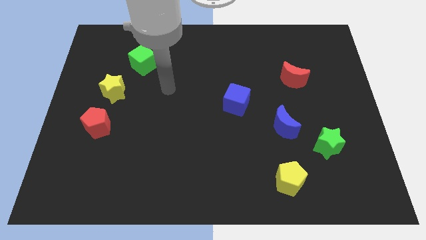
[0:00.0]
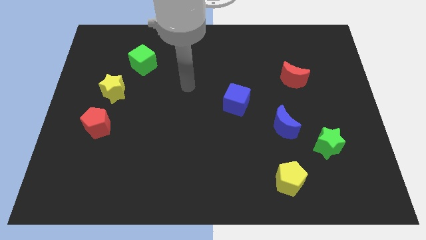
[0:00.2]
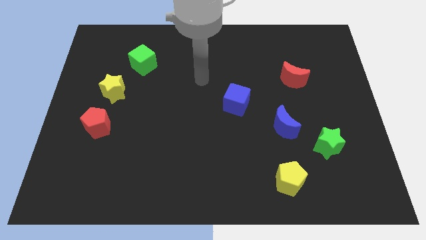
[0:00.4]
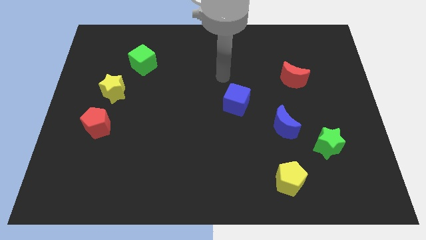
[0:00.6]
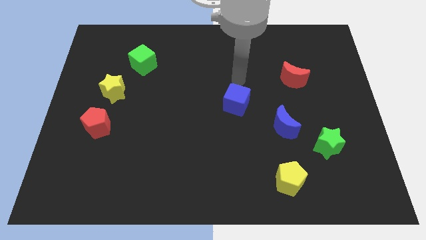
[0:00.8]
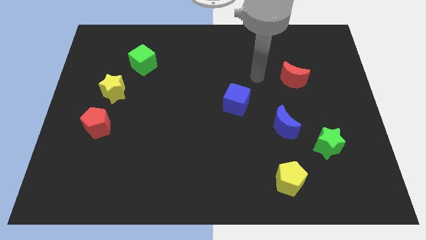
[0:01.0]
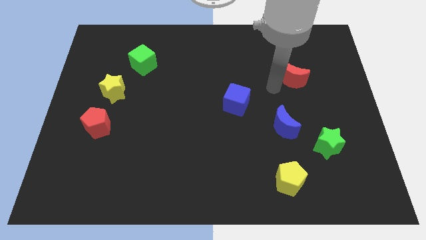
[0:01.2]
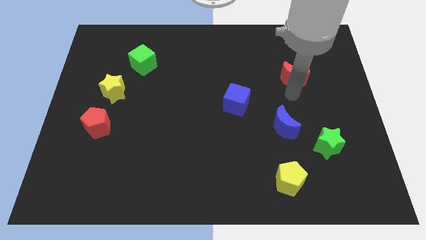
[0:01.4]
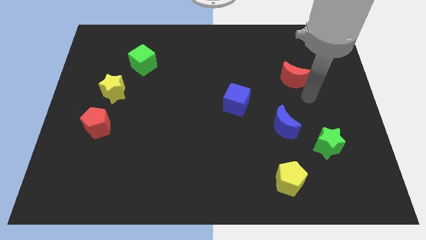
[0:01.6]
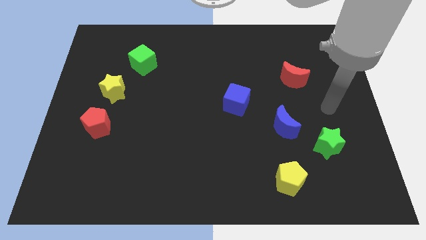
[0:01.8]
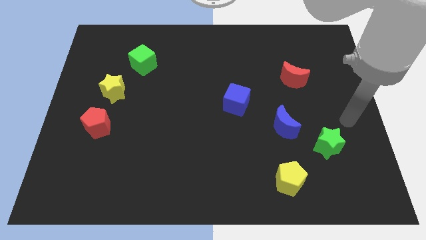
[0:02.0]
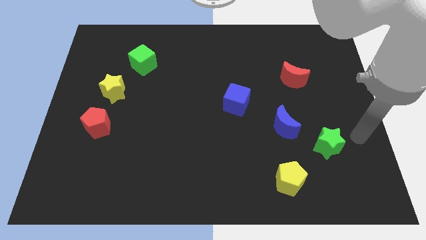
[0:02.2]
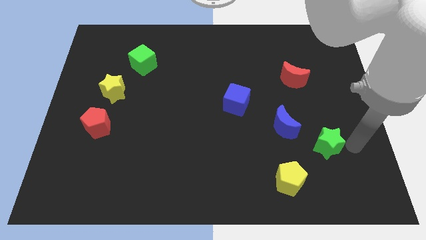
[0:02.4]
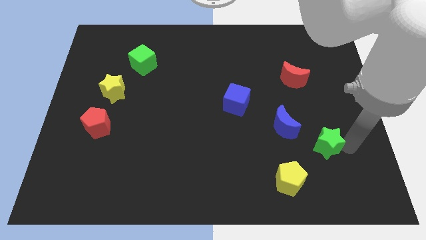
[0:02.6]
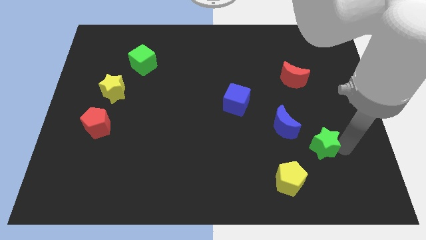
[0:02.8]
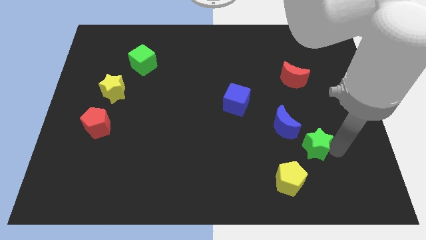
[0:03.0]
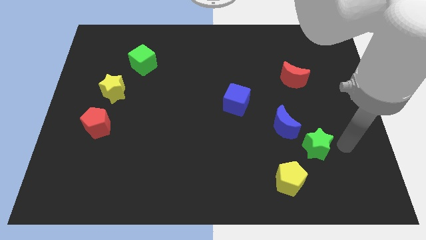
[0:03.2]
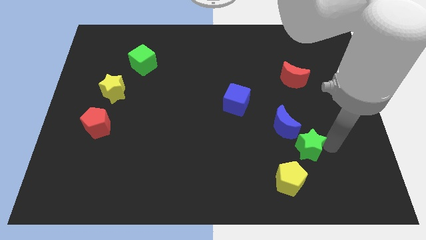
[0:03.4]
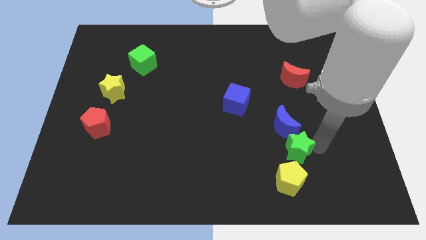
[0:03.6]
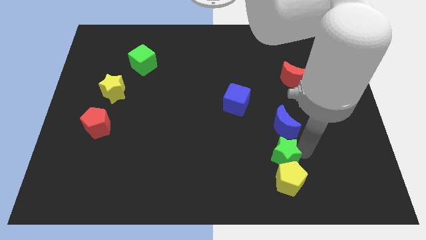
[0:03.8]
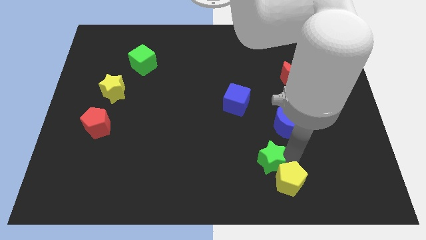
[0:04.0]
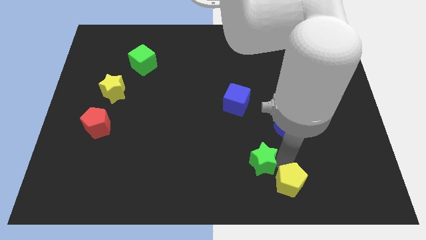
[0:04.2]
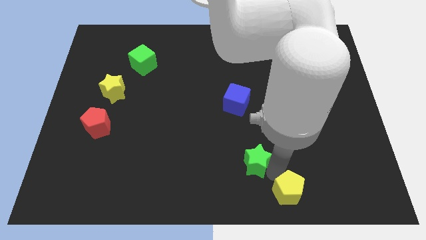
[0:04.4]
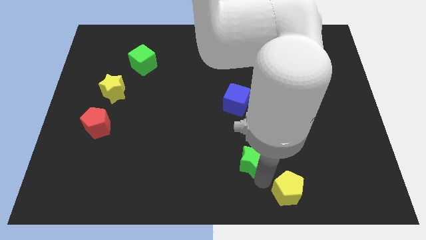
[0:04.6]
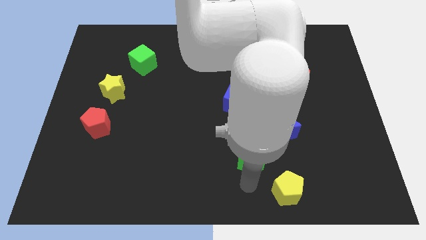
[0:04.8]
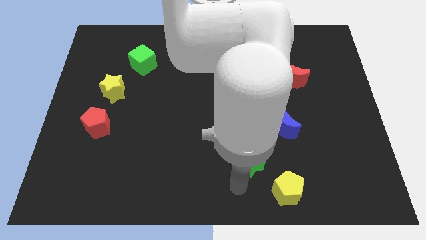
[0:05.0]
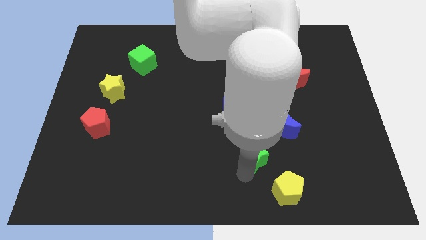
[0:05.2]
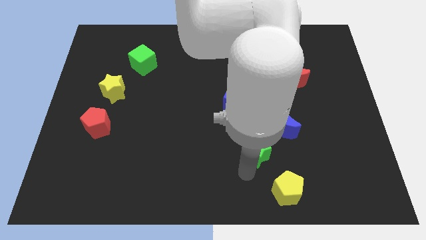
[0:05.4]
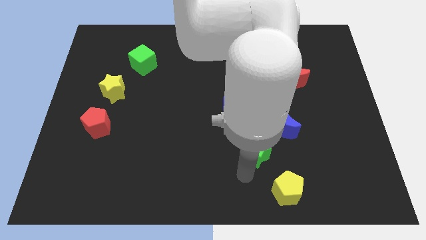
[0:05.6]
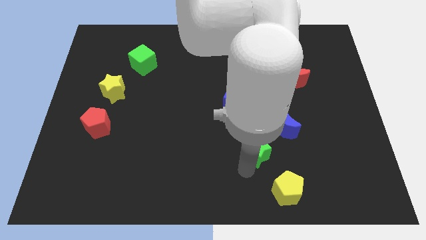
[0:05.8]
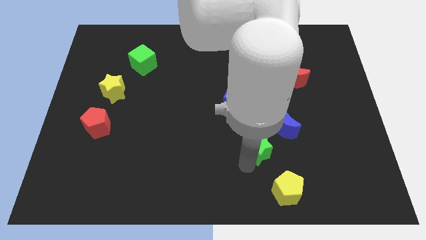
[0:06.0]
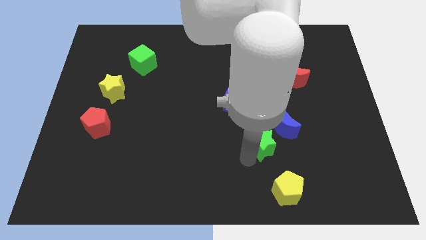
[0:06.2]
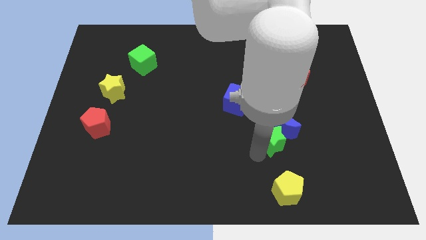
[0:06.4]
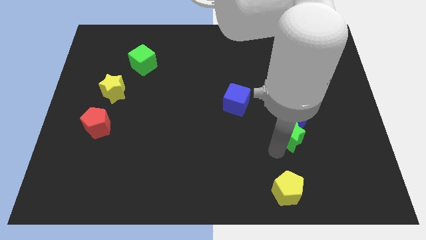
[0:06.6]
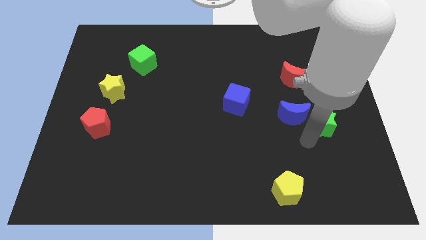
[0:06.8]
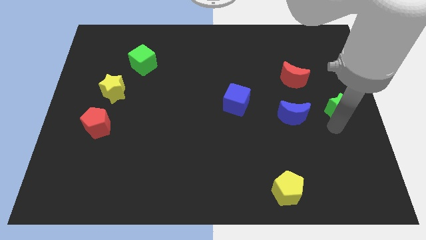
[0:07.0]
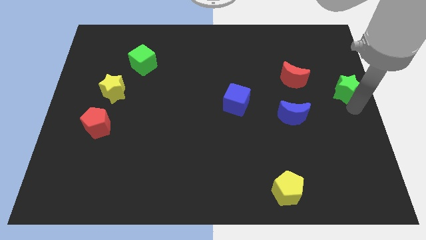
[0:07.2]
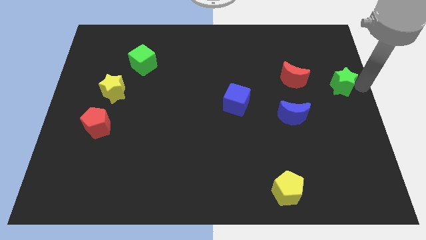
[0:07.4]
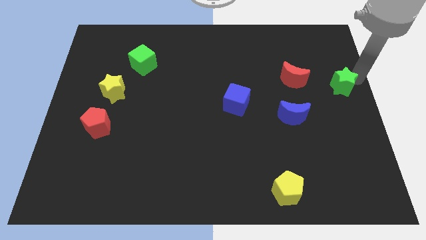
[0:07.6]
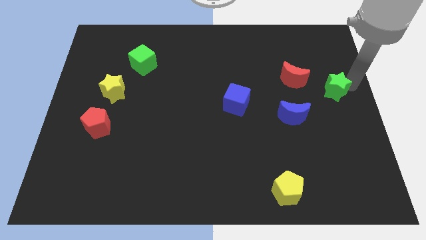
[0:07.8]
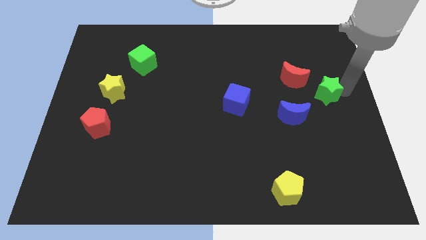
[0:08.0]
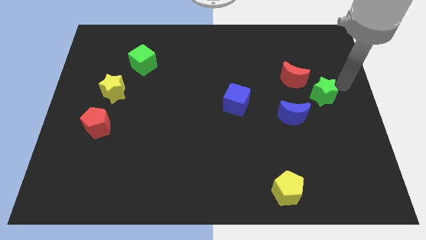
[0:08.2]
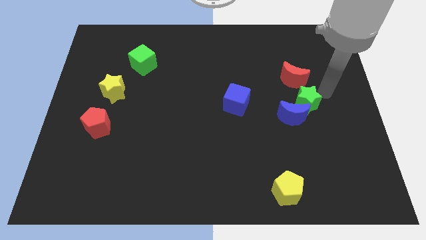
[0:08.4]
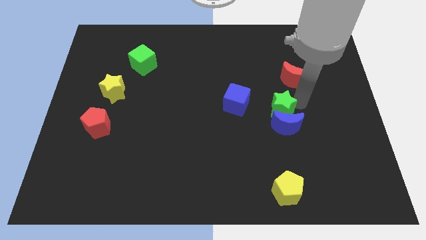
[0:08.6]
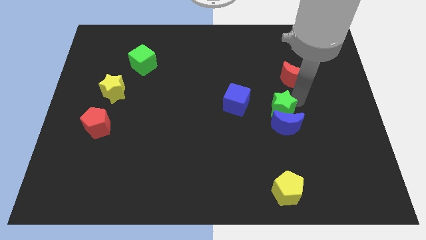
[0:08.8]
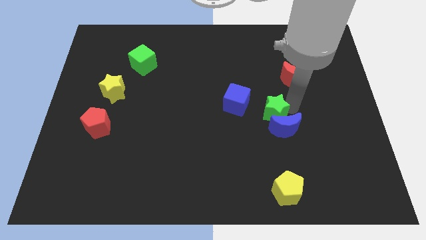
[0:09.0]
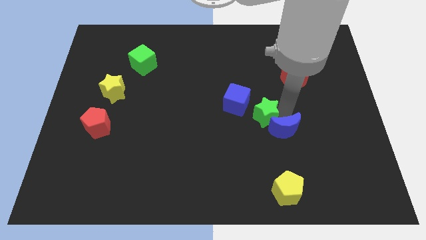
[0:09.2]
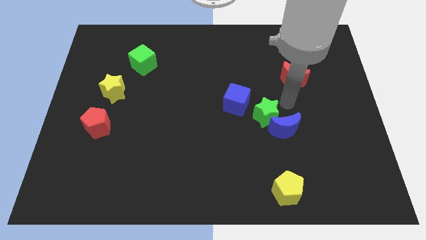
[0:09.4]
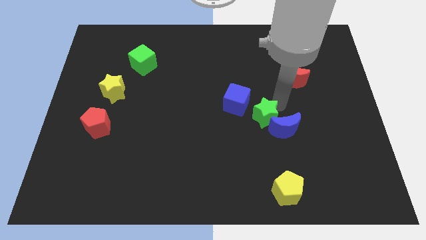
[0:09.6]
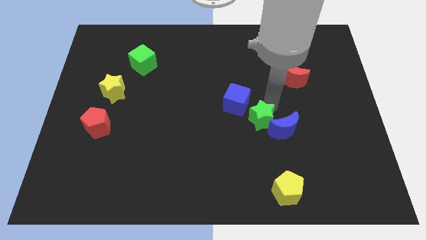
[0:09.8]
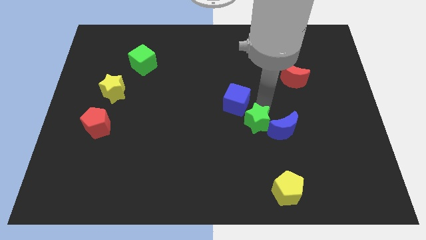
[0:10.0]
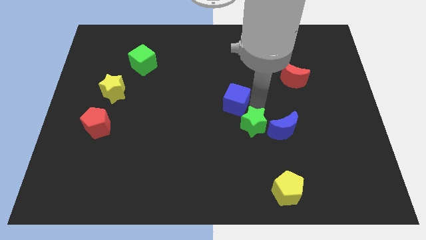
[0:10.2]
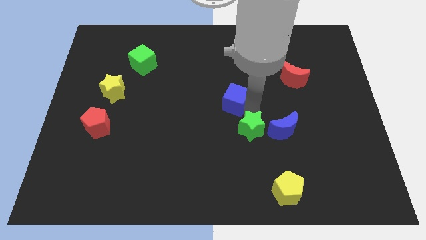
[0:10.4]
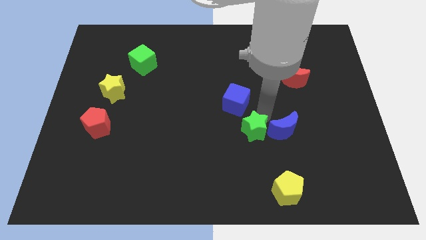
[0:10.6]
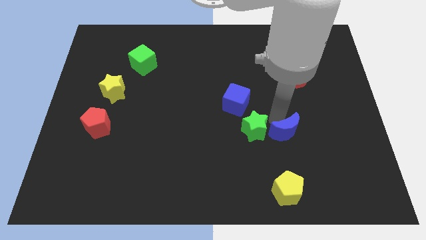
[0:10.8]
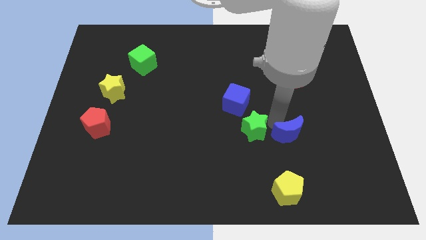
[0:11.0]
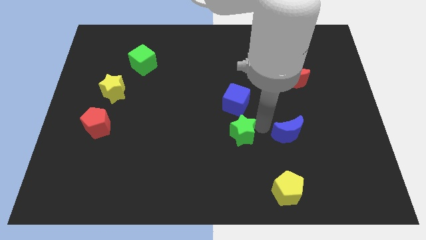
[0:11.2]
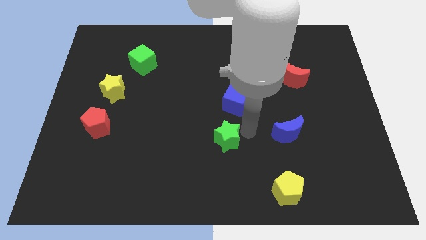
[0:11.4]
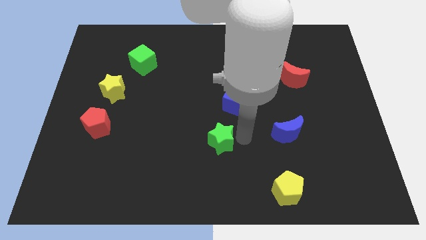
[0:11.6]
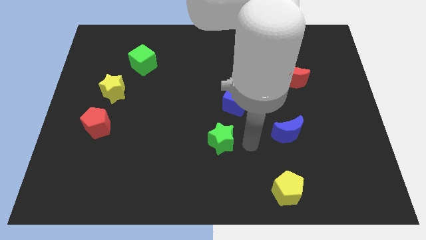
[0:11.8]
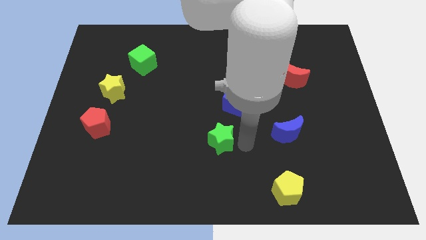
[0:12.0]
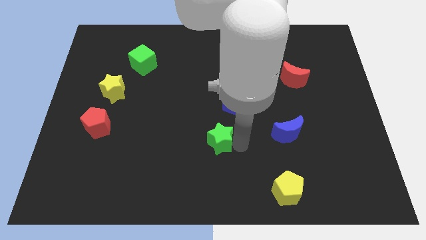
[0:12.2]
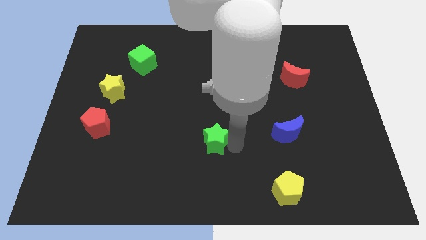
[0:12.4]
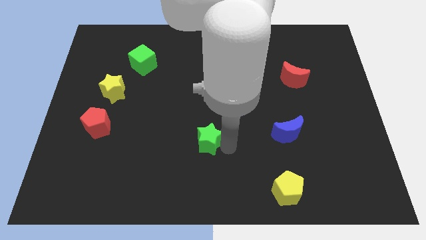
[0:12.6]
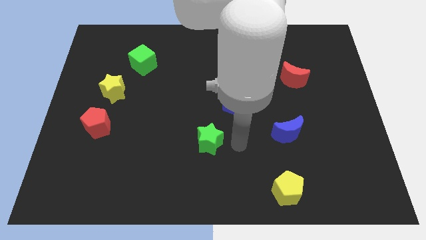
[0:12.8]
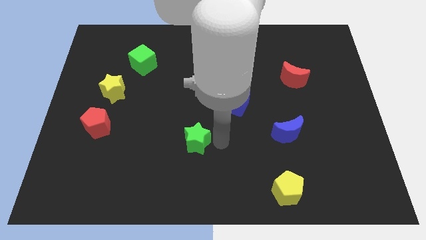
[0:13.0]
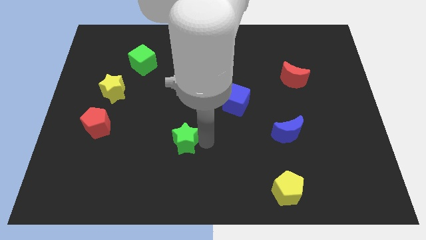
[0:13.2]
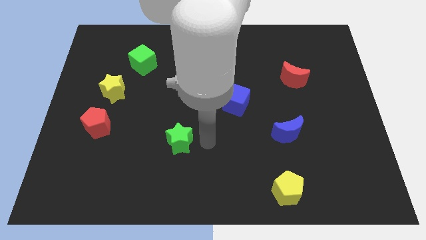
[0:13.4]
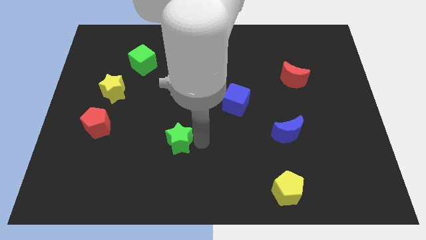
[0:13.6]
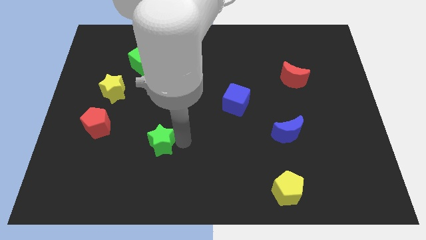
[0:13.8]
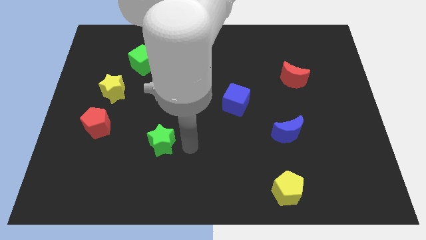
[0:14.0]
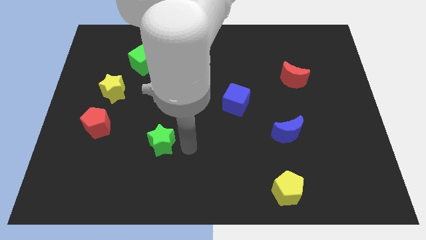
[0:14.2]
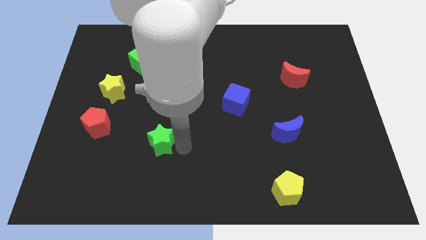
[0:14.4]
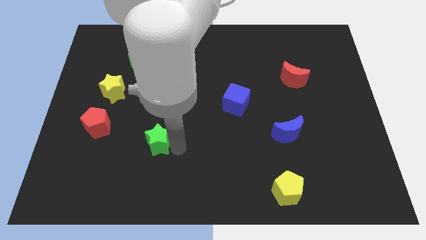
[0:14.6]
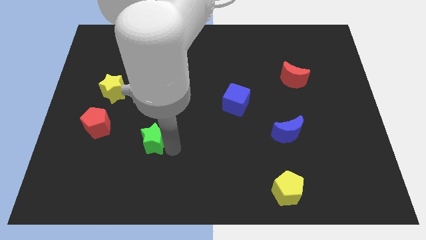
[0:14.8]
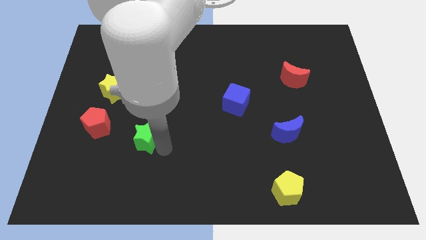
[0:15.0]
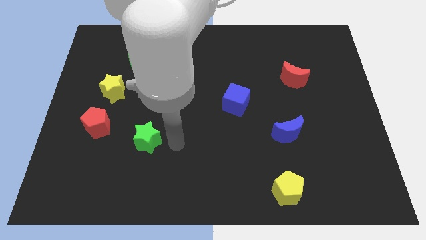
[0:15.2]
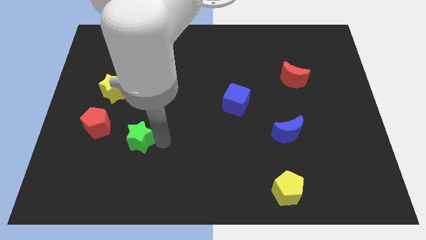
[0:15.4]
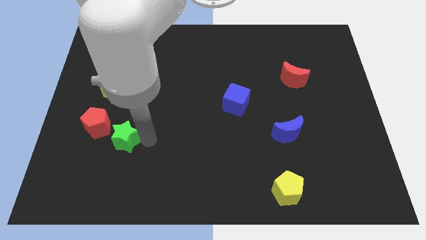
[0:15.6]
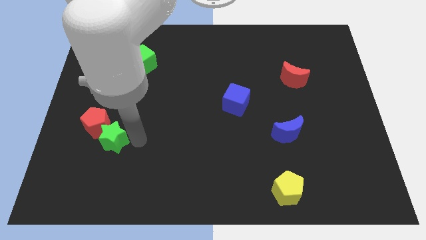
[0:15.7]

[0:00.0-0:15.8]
slide the green star close to the red pentagon

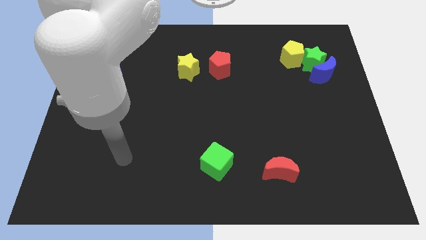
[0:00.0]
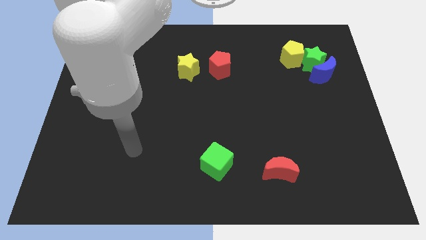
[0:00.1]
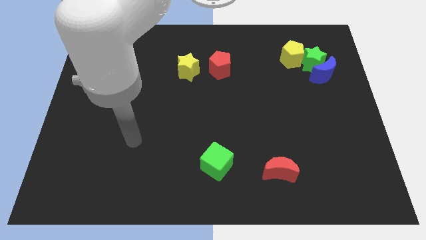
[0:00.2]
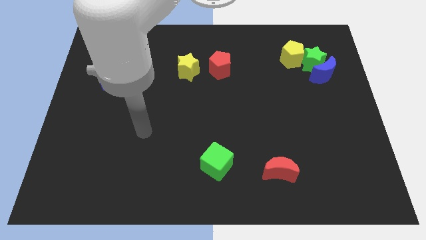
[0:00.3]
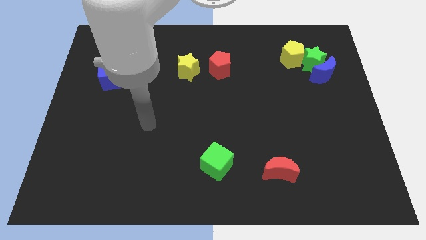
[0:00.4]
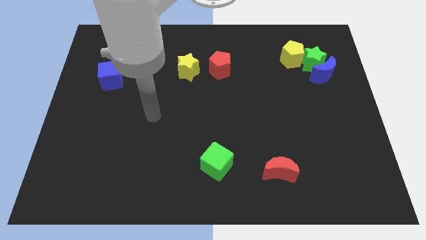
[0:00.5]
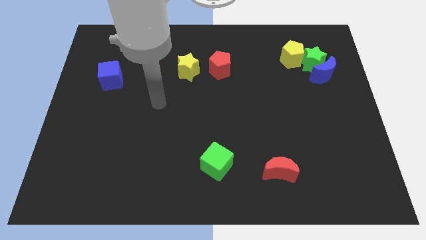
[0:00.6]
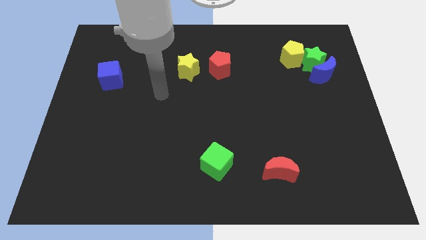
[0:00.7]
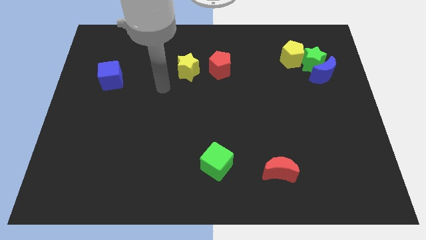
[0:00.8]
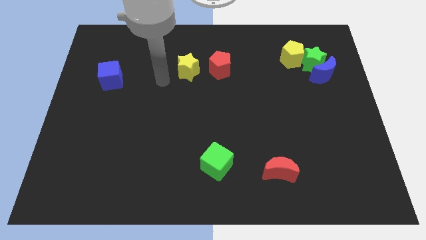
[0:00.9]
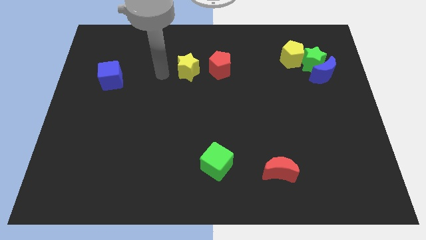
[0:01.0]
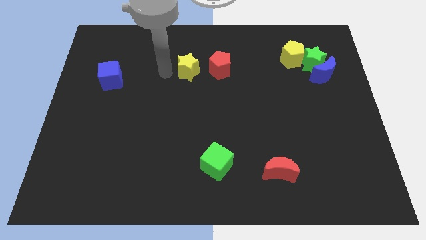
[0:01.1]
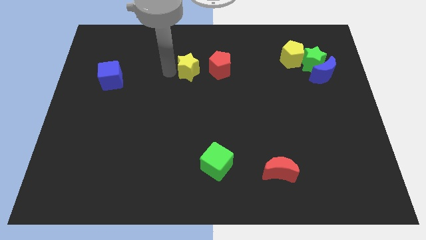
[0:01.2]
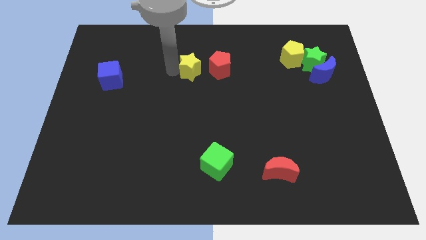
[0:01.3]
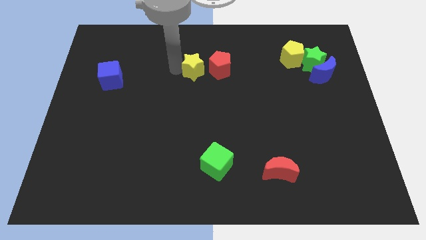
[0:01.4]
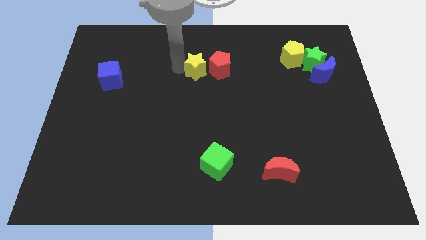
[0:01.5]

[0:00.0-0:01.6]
slide the yellow star to the red pentagon
